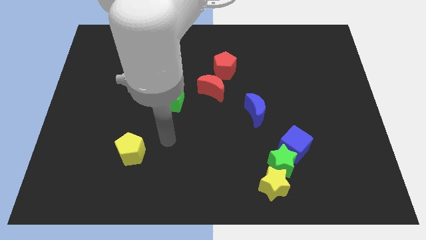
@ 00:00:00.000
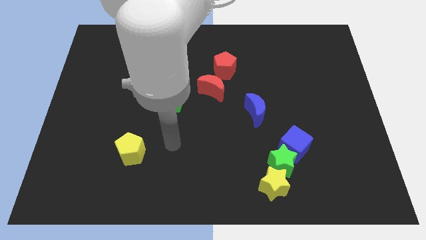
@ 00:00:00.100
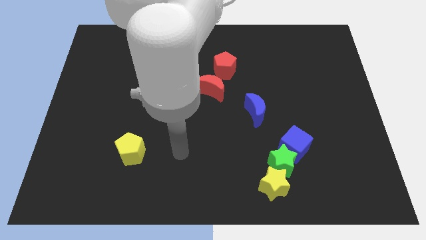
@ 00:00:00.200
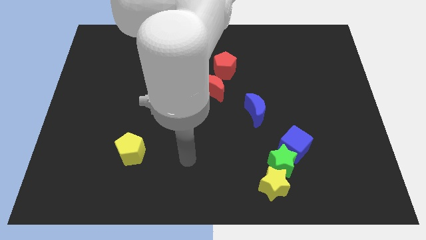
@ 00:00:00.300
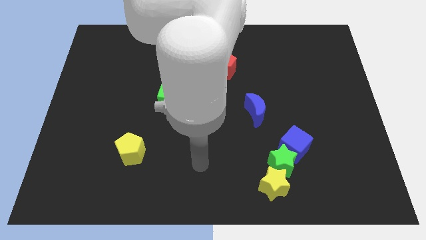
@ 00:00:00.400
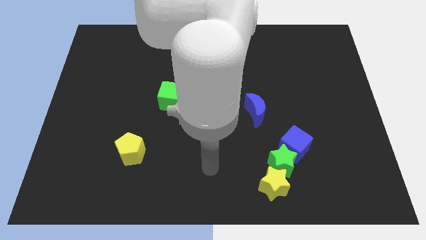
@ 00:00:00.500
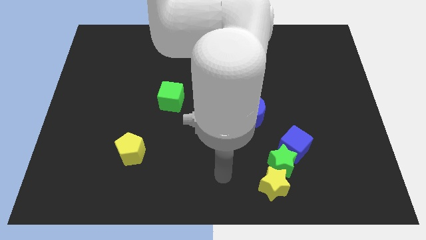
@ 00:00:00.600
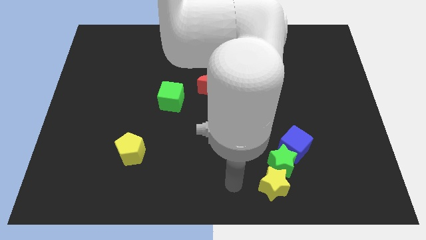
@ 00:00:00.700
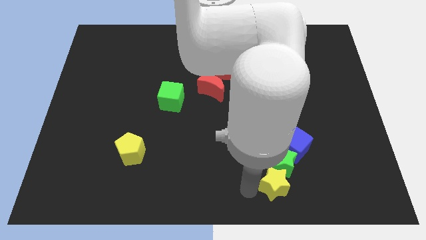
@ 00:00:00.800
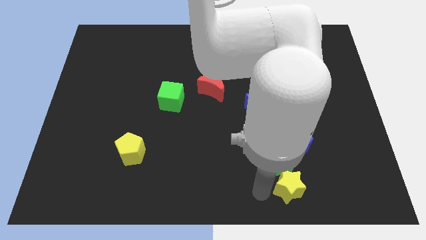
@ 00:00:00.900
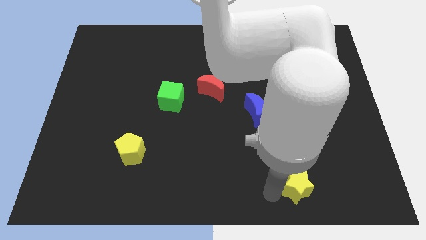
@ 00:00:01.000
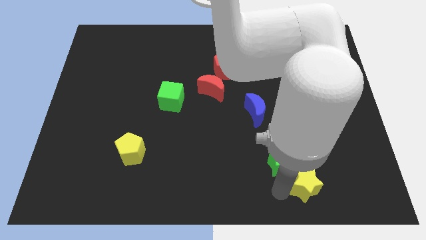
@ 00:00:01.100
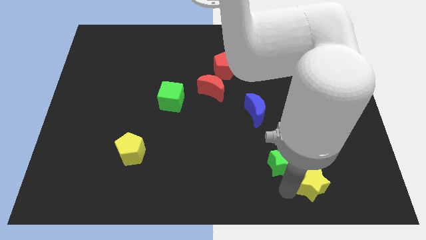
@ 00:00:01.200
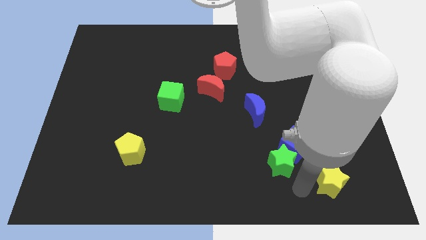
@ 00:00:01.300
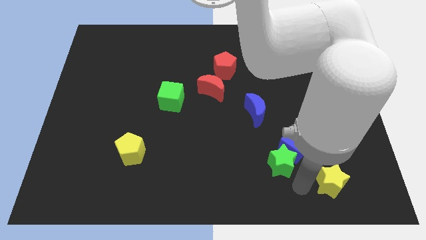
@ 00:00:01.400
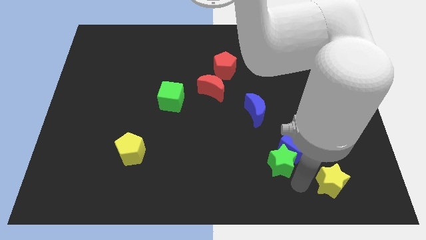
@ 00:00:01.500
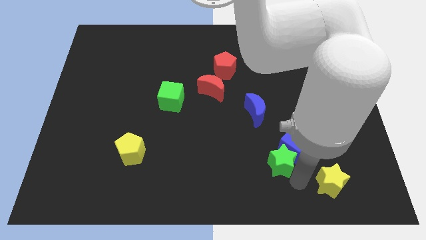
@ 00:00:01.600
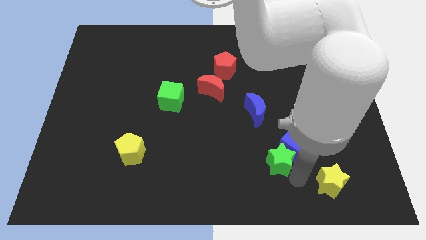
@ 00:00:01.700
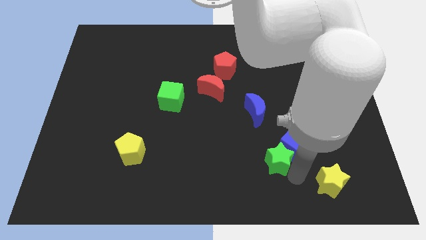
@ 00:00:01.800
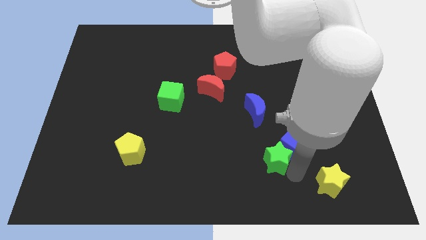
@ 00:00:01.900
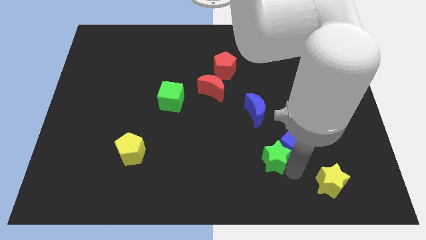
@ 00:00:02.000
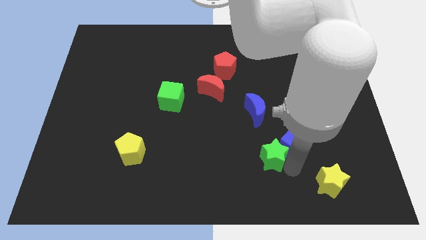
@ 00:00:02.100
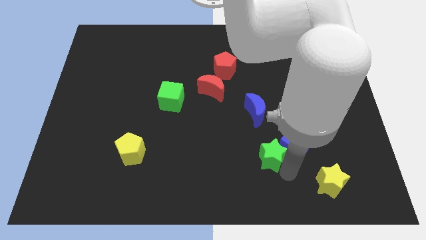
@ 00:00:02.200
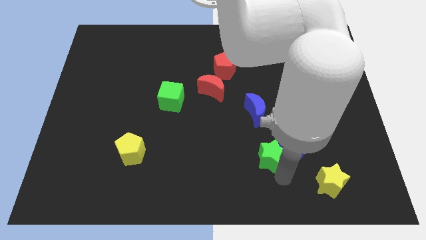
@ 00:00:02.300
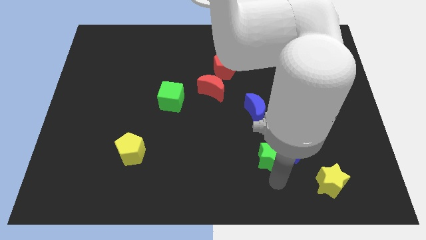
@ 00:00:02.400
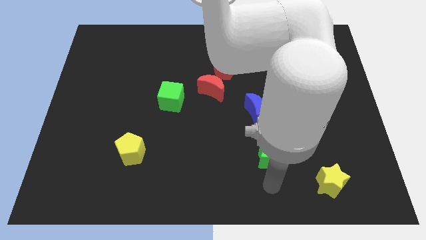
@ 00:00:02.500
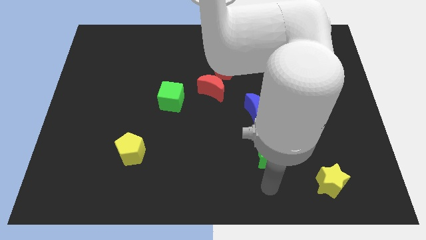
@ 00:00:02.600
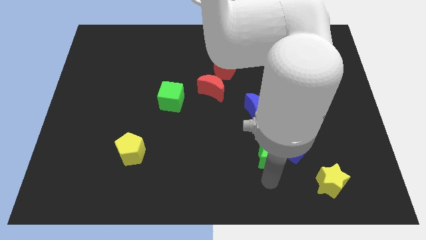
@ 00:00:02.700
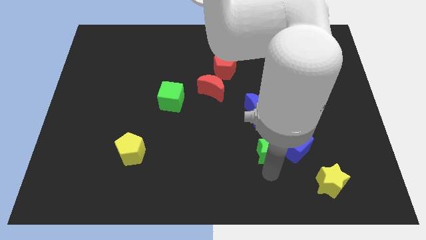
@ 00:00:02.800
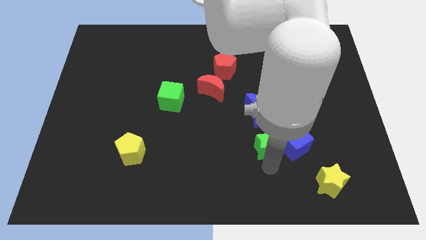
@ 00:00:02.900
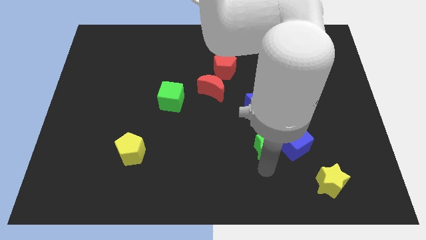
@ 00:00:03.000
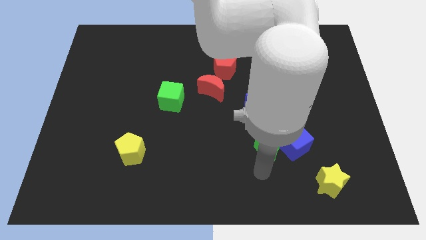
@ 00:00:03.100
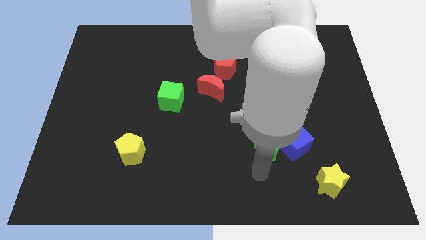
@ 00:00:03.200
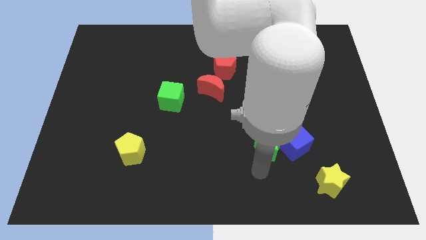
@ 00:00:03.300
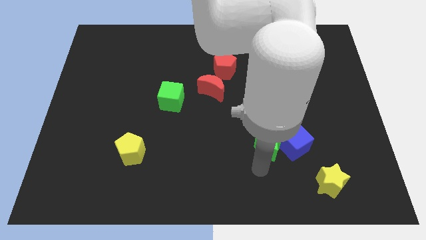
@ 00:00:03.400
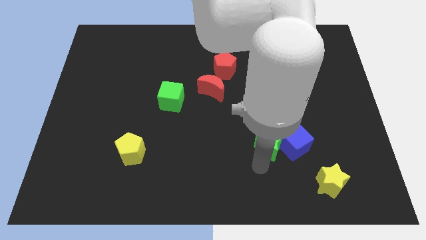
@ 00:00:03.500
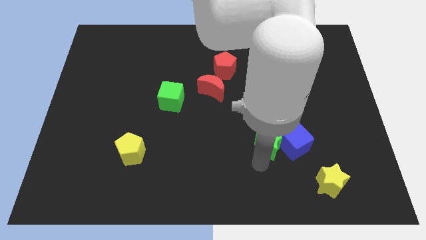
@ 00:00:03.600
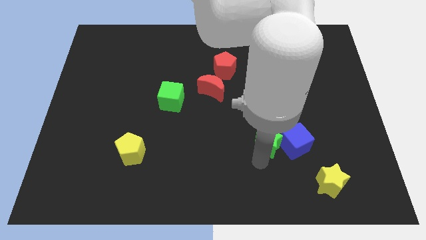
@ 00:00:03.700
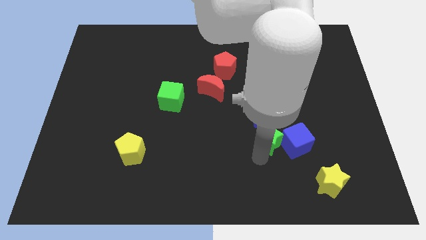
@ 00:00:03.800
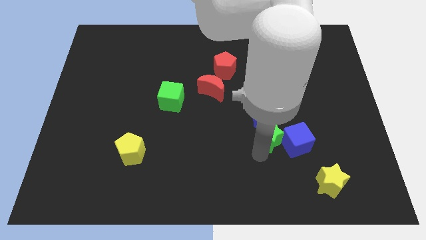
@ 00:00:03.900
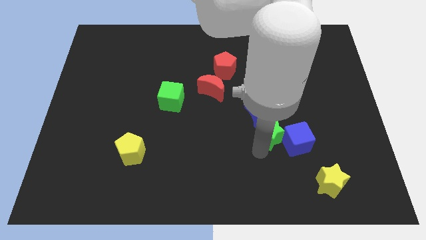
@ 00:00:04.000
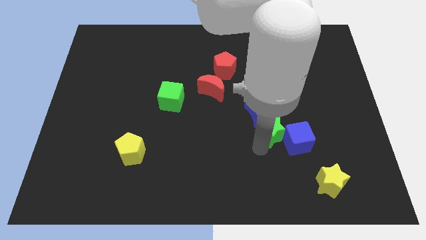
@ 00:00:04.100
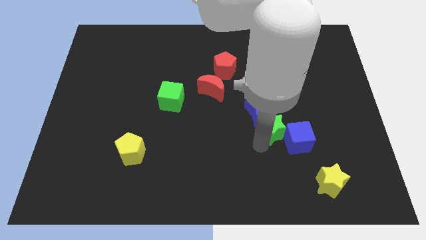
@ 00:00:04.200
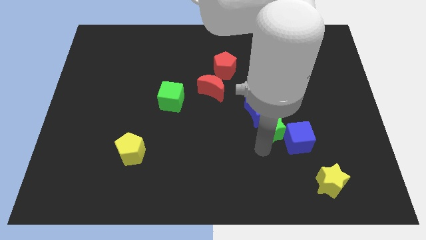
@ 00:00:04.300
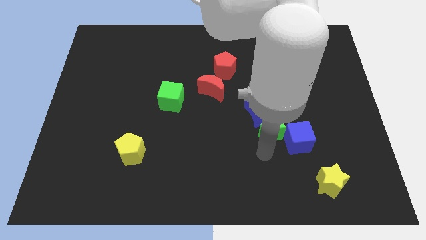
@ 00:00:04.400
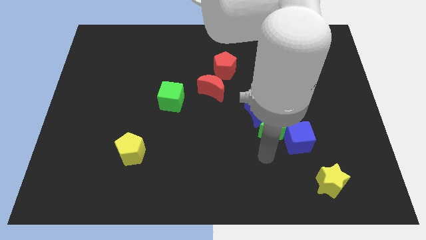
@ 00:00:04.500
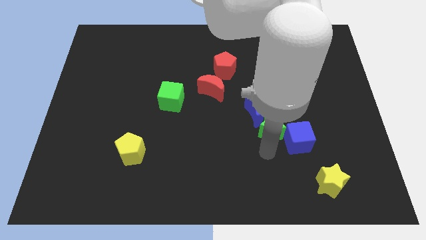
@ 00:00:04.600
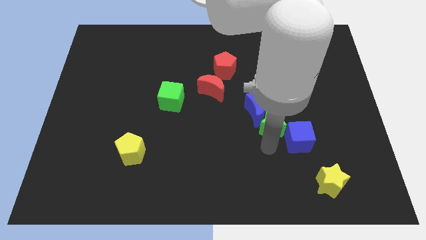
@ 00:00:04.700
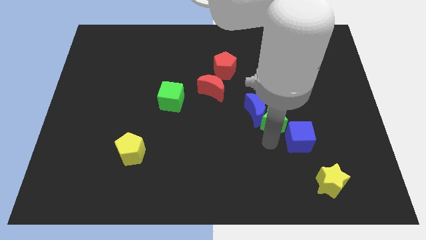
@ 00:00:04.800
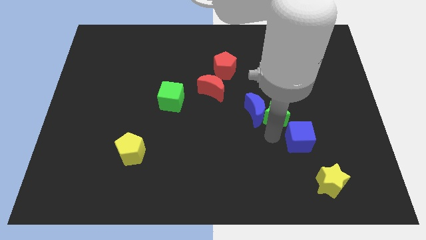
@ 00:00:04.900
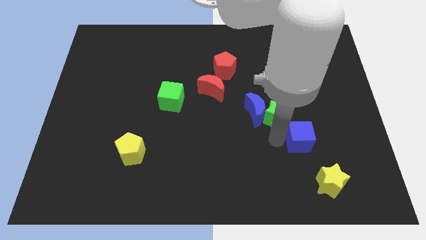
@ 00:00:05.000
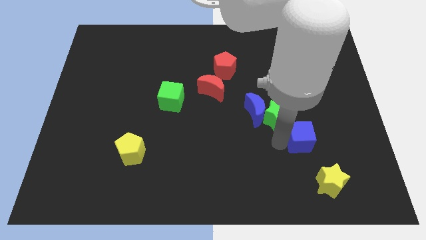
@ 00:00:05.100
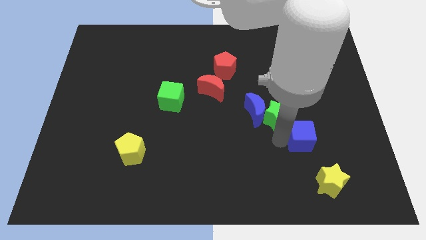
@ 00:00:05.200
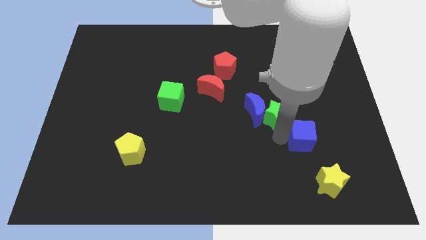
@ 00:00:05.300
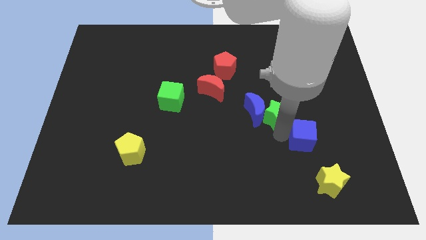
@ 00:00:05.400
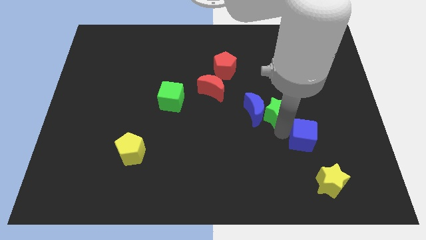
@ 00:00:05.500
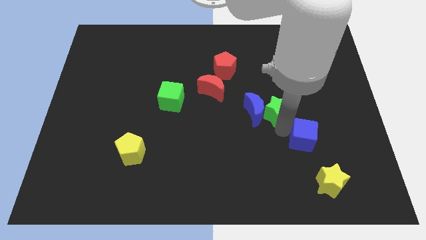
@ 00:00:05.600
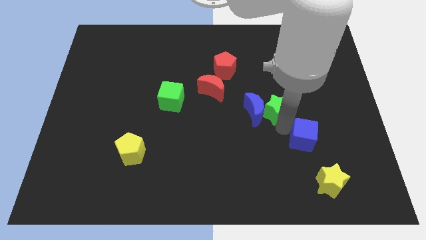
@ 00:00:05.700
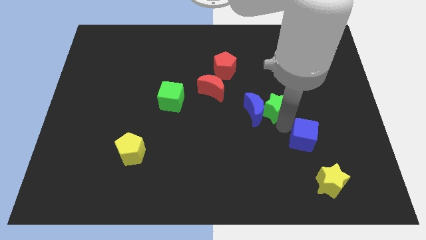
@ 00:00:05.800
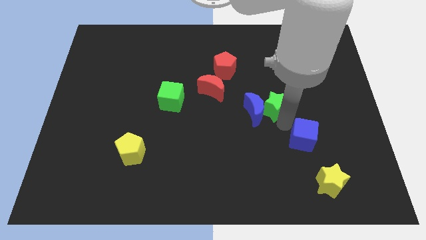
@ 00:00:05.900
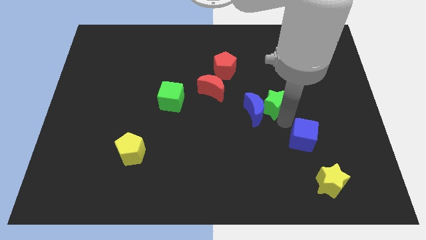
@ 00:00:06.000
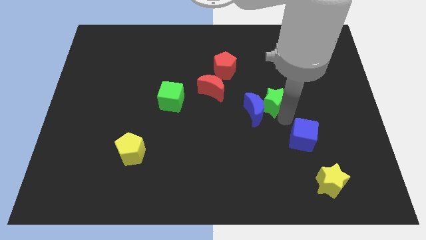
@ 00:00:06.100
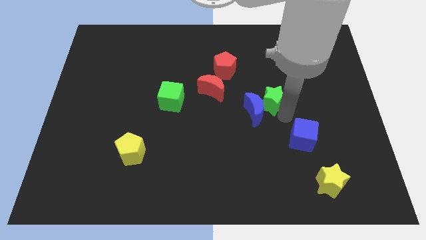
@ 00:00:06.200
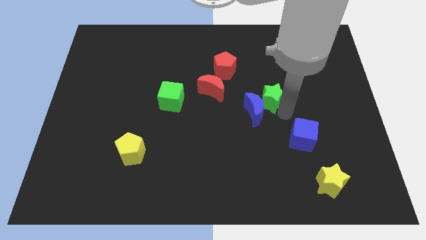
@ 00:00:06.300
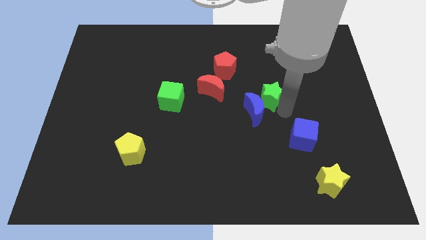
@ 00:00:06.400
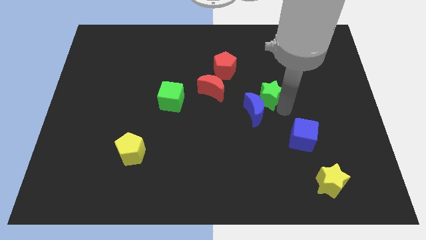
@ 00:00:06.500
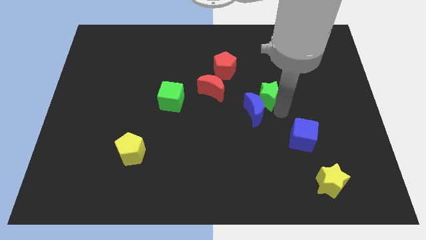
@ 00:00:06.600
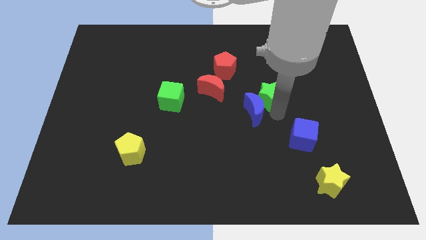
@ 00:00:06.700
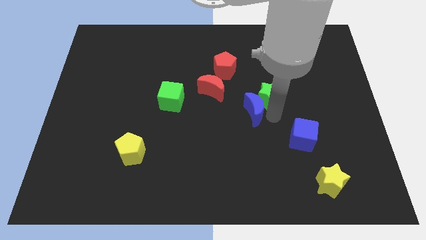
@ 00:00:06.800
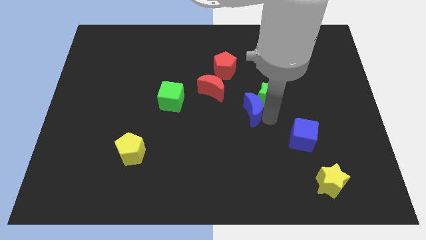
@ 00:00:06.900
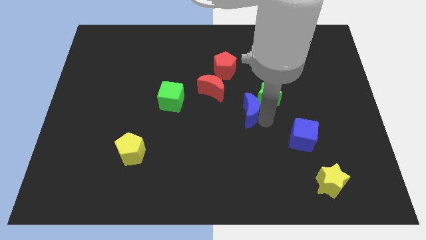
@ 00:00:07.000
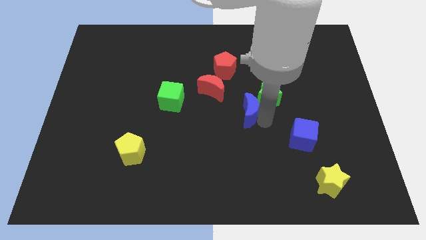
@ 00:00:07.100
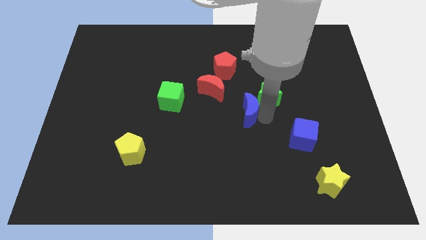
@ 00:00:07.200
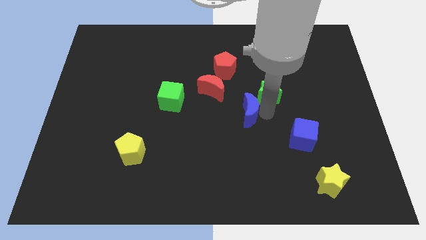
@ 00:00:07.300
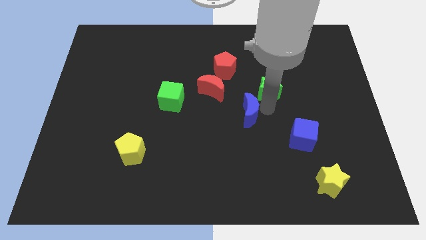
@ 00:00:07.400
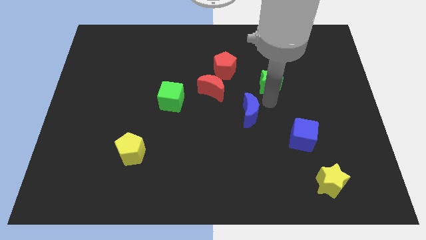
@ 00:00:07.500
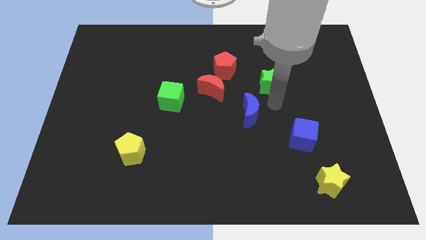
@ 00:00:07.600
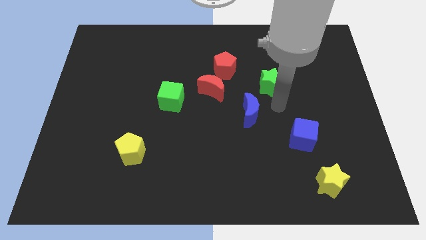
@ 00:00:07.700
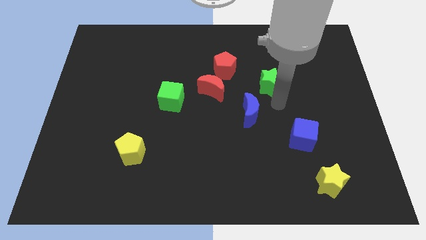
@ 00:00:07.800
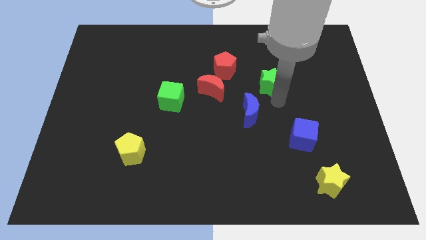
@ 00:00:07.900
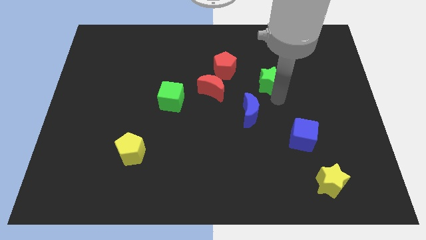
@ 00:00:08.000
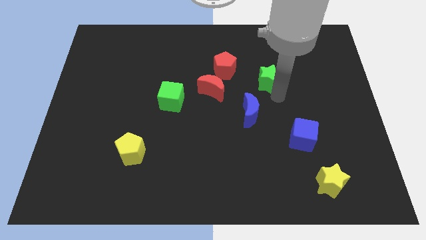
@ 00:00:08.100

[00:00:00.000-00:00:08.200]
put the green star right of the red pentagon
